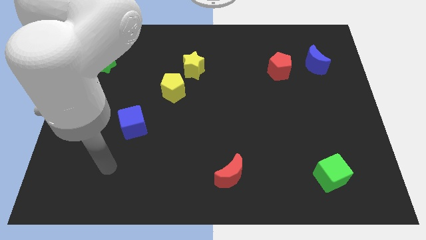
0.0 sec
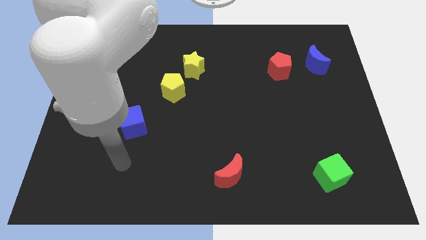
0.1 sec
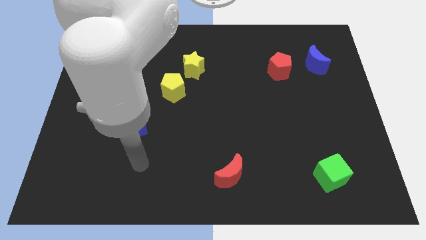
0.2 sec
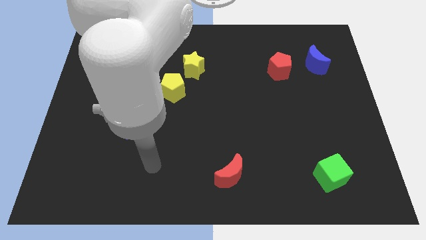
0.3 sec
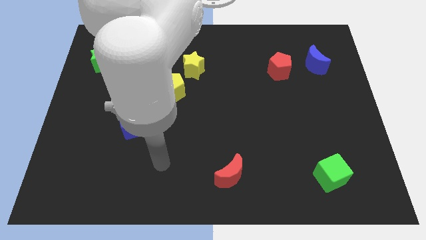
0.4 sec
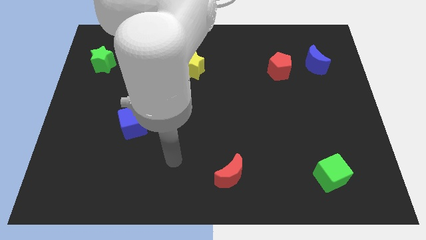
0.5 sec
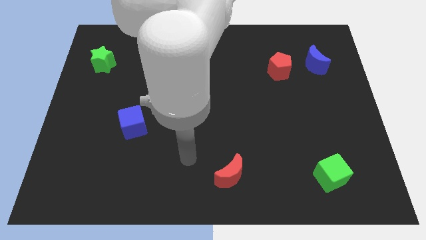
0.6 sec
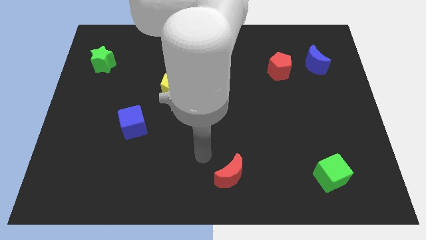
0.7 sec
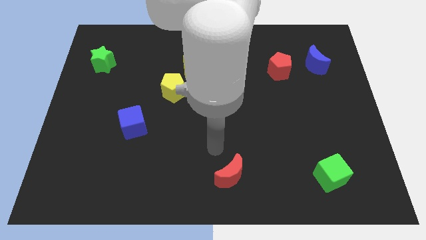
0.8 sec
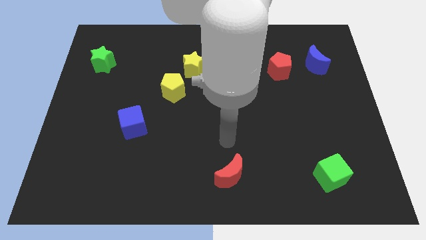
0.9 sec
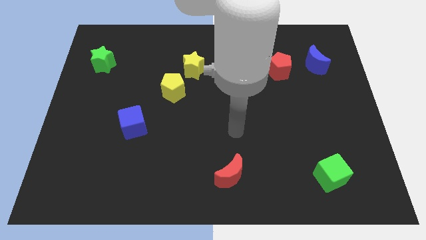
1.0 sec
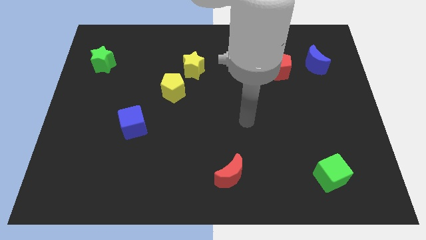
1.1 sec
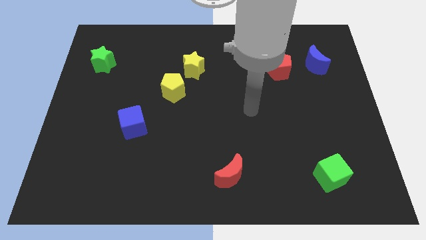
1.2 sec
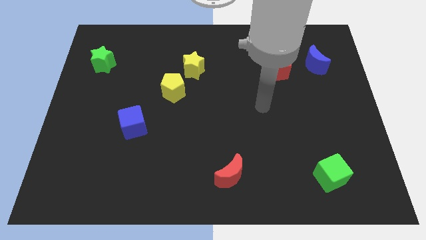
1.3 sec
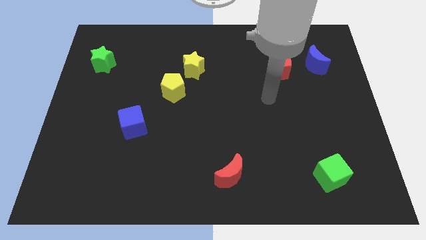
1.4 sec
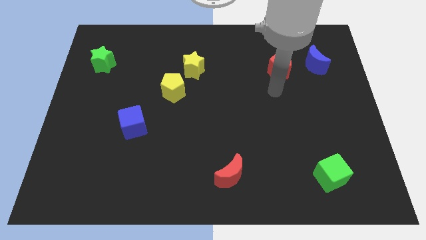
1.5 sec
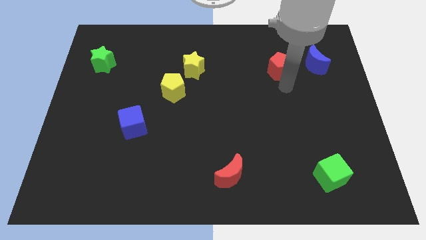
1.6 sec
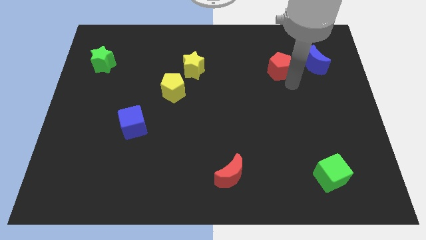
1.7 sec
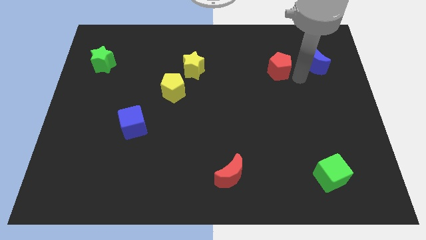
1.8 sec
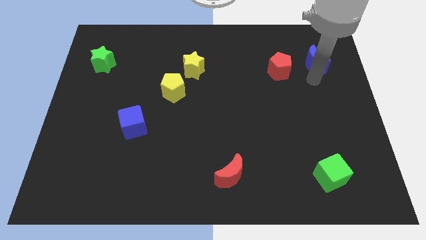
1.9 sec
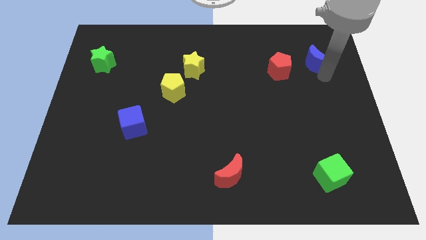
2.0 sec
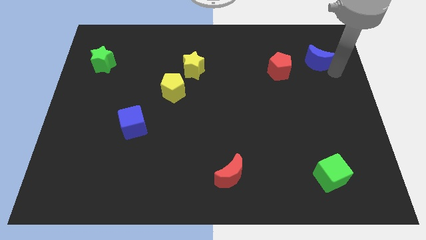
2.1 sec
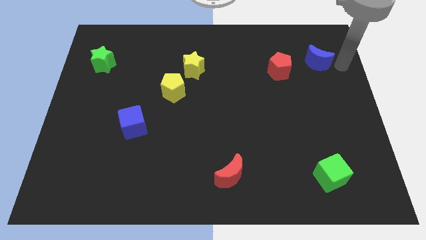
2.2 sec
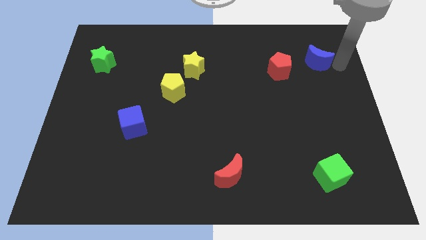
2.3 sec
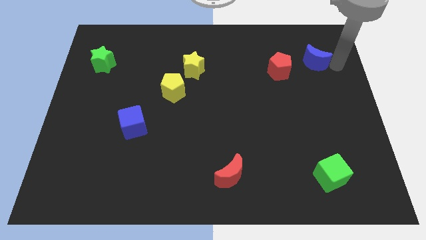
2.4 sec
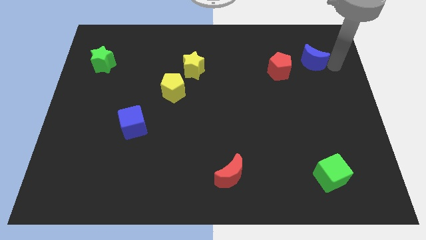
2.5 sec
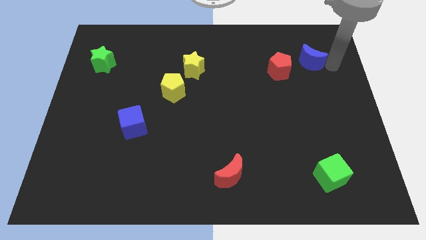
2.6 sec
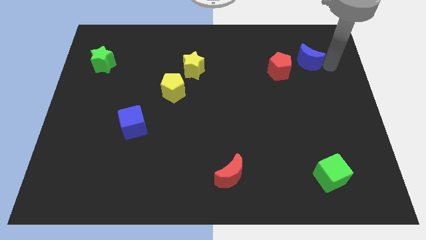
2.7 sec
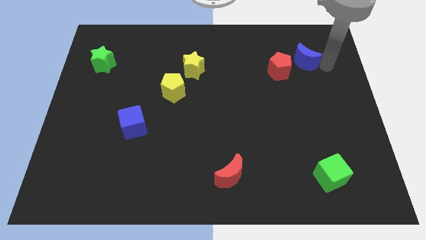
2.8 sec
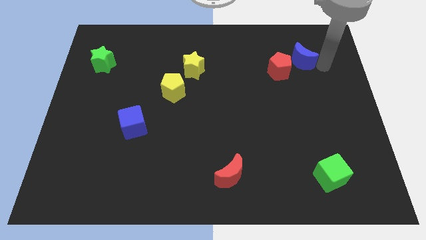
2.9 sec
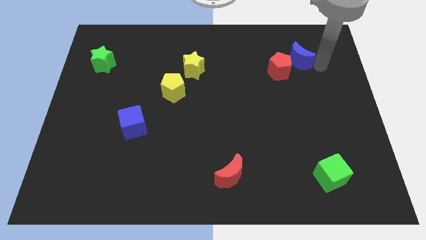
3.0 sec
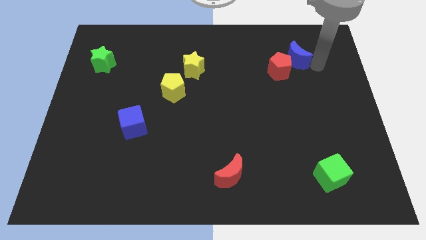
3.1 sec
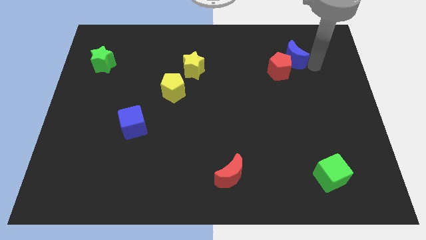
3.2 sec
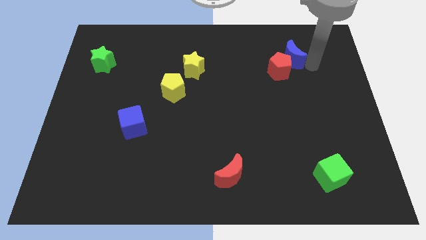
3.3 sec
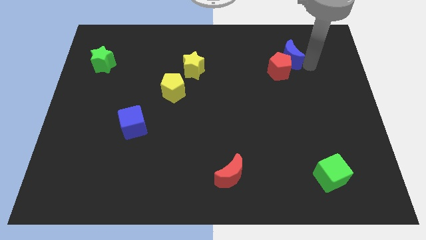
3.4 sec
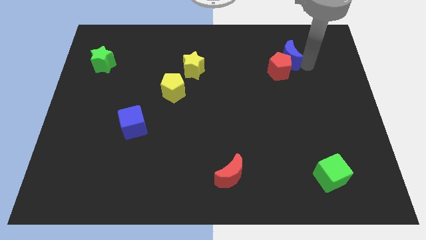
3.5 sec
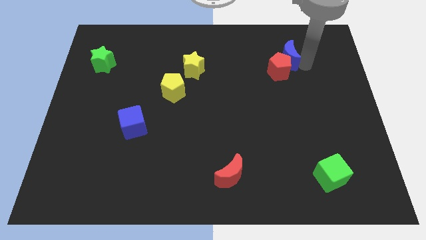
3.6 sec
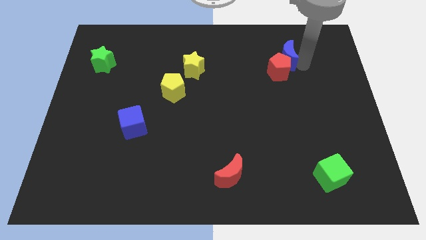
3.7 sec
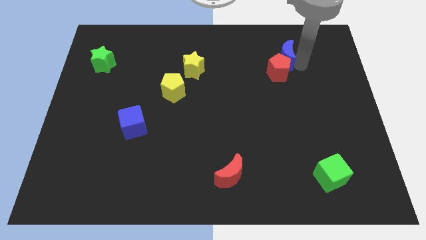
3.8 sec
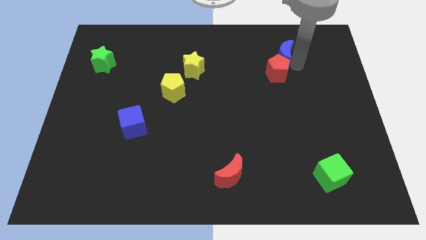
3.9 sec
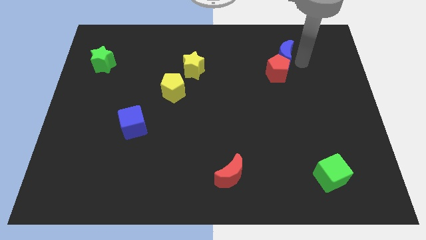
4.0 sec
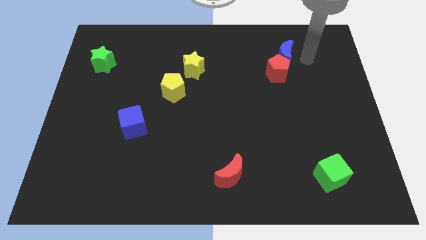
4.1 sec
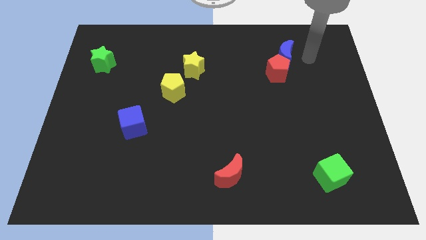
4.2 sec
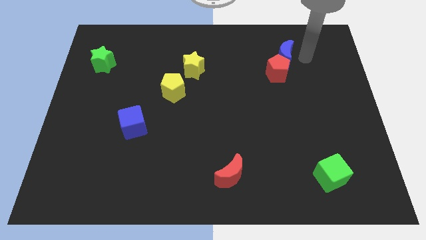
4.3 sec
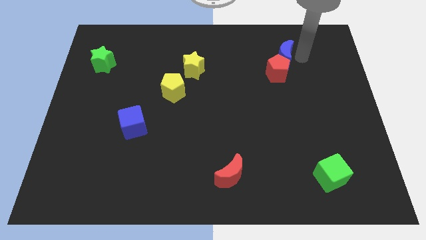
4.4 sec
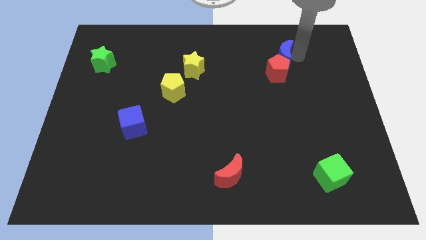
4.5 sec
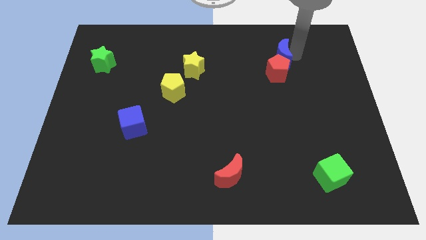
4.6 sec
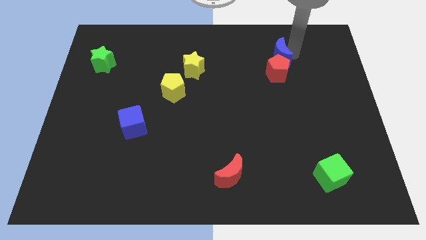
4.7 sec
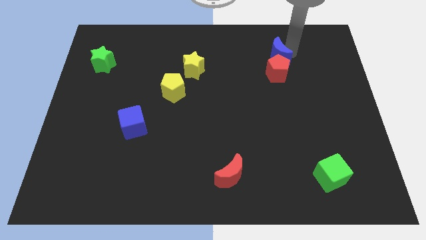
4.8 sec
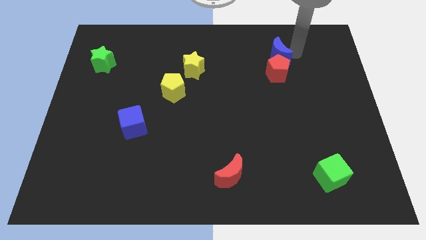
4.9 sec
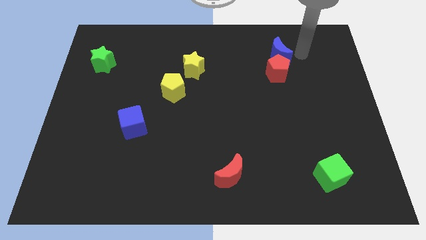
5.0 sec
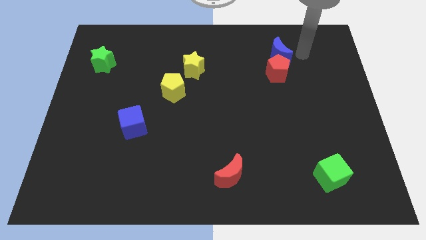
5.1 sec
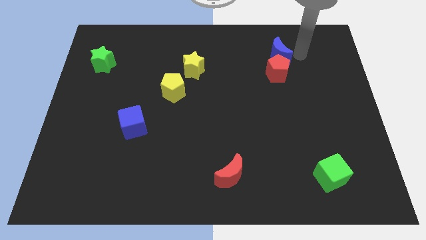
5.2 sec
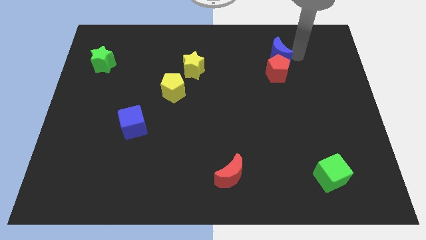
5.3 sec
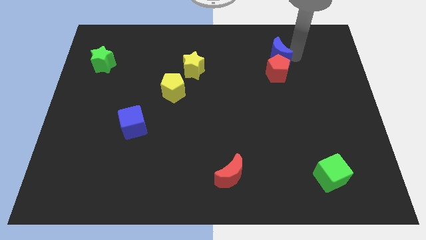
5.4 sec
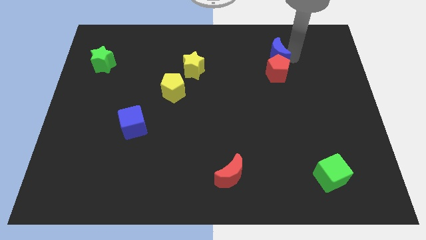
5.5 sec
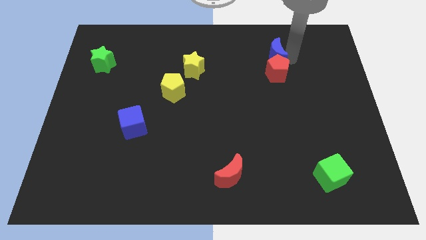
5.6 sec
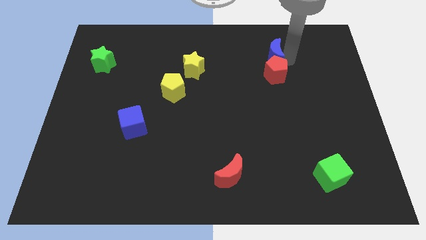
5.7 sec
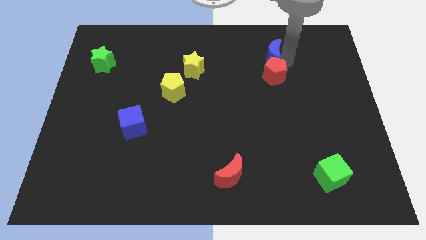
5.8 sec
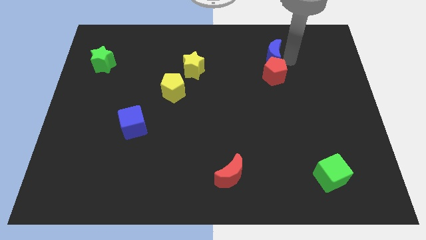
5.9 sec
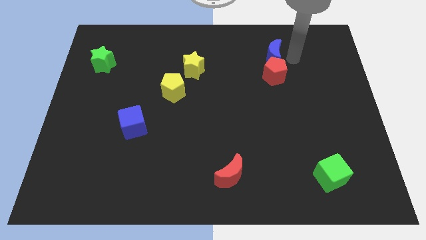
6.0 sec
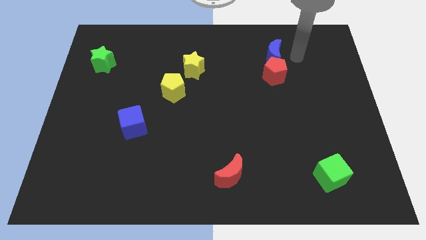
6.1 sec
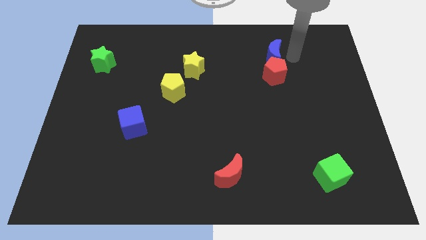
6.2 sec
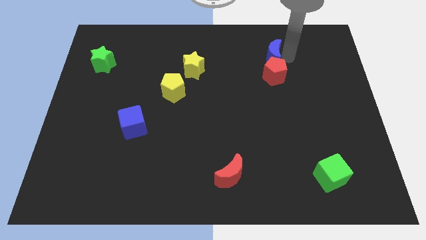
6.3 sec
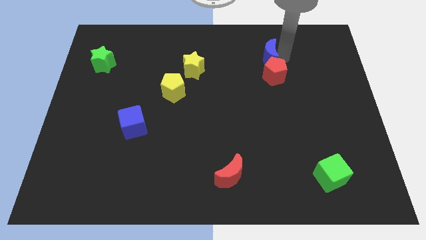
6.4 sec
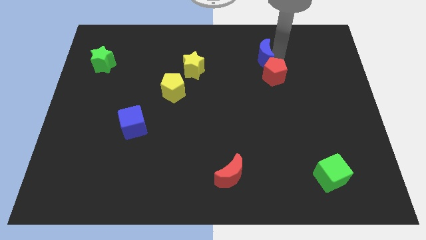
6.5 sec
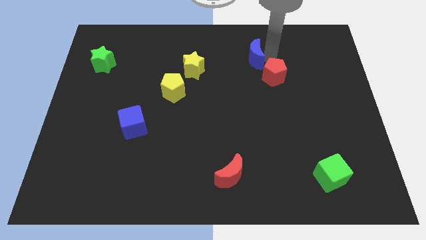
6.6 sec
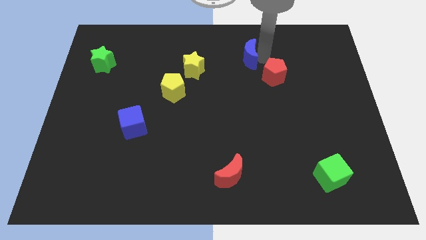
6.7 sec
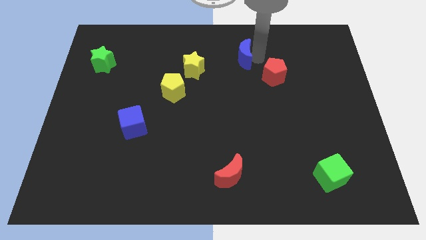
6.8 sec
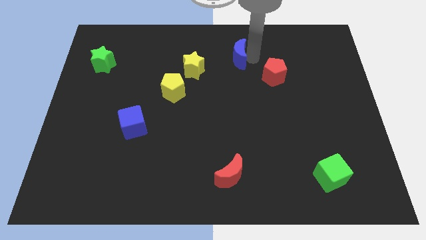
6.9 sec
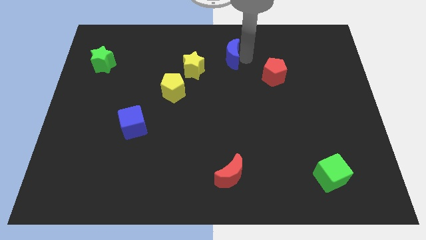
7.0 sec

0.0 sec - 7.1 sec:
move the blue moon to the top right side of the yellow star
